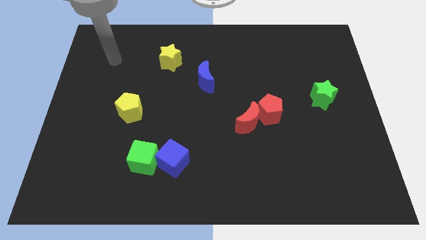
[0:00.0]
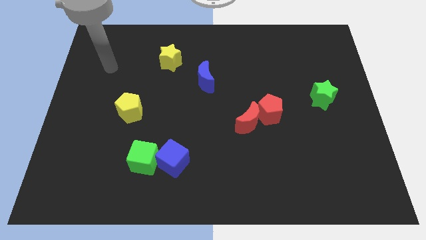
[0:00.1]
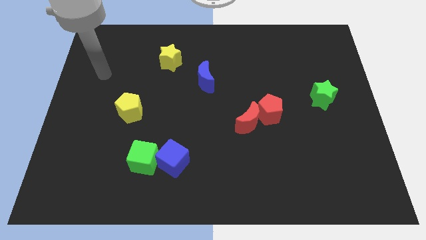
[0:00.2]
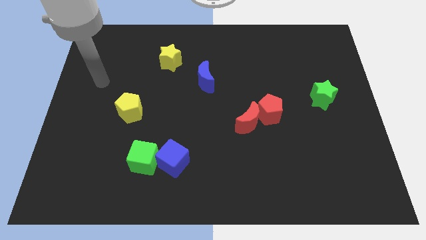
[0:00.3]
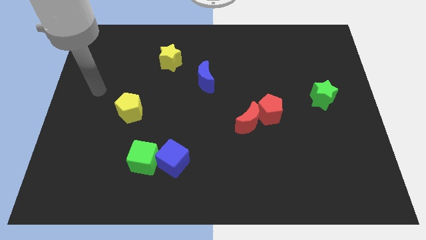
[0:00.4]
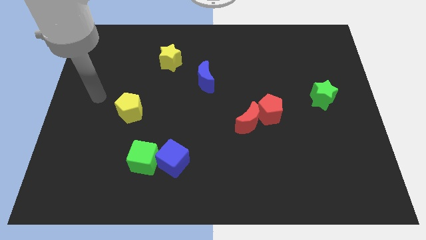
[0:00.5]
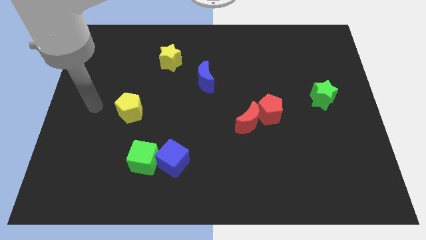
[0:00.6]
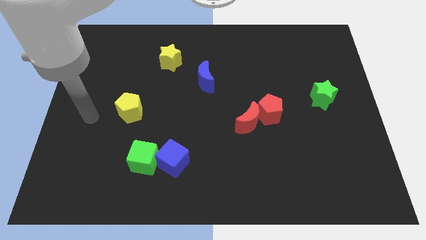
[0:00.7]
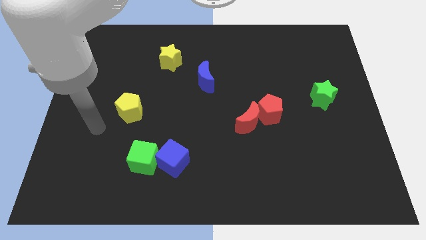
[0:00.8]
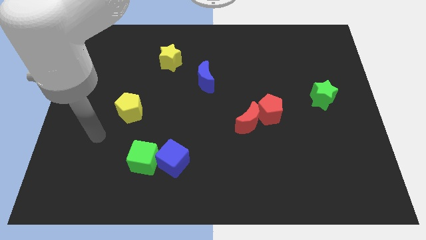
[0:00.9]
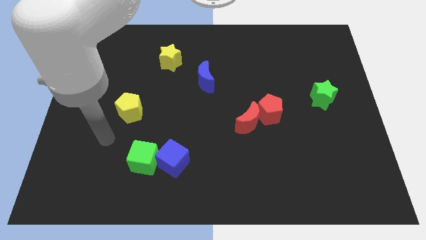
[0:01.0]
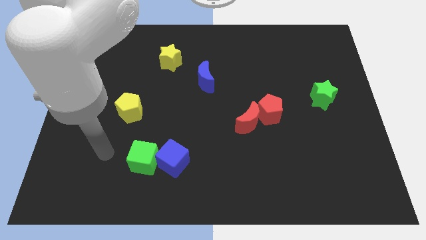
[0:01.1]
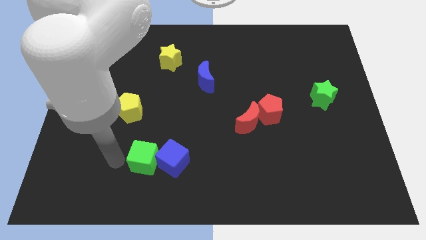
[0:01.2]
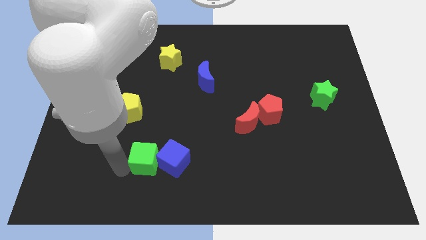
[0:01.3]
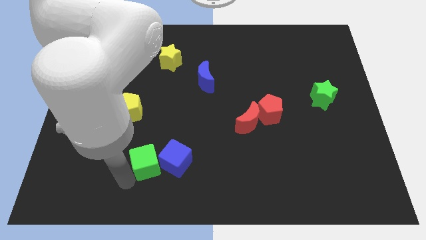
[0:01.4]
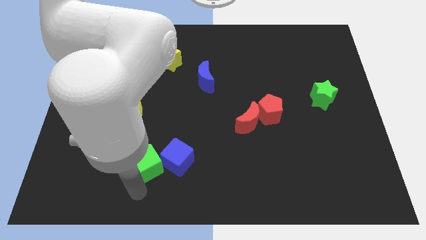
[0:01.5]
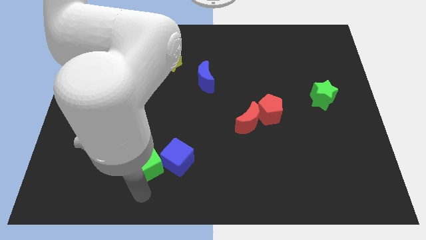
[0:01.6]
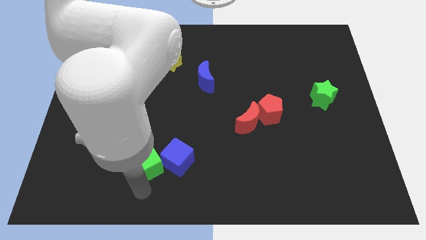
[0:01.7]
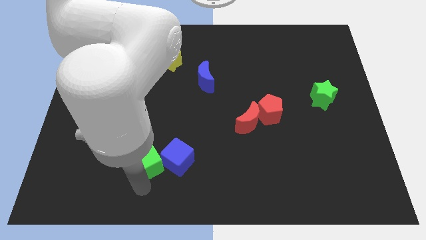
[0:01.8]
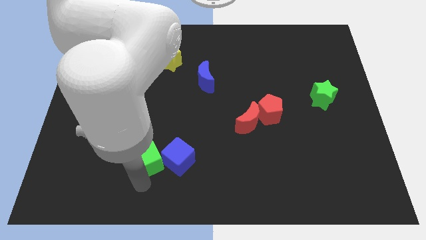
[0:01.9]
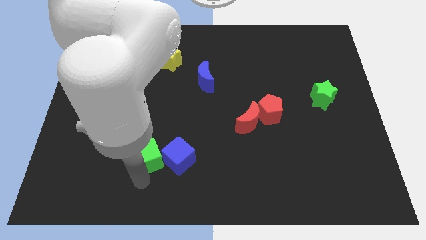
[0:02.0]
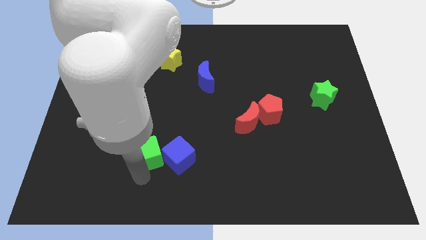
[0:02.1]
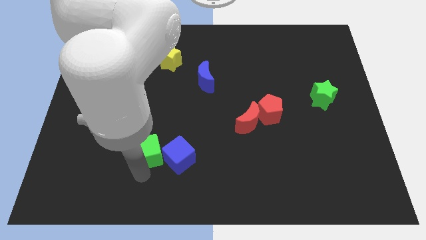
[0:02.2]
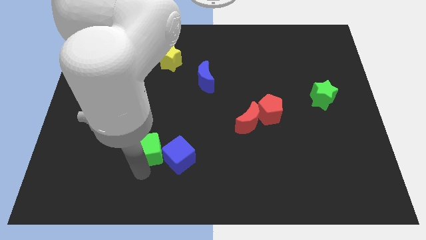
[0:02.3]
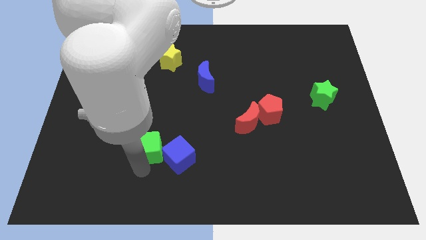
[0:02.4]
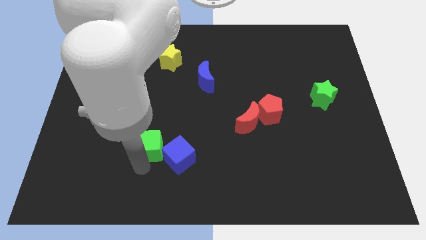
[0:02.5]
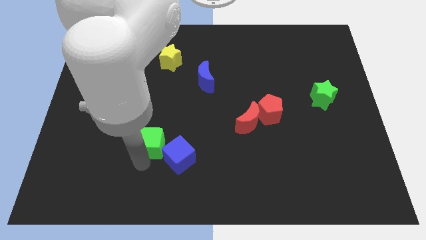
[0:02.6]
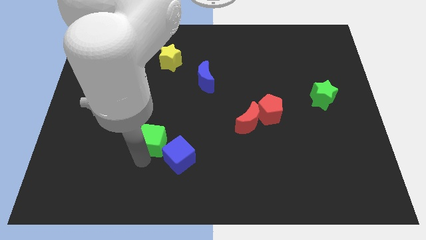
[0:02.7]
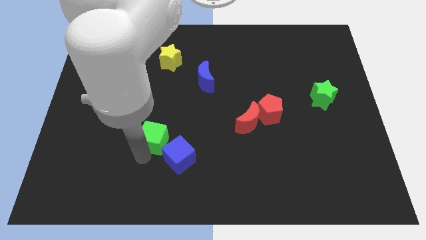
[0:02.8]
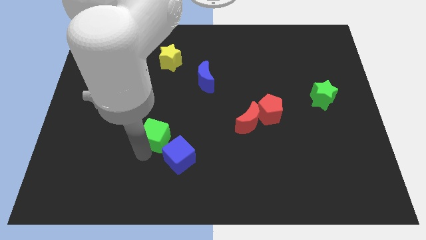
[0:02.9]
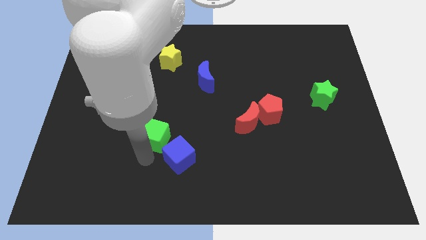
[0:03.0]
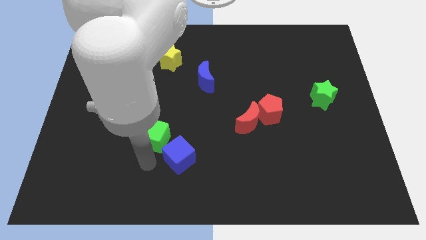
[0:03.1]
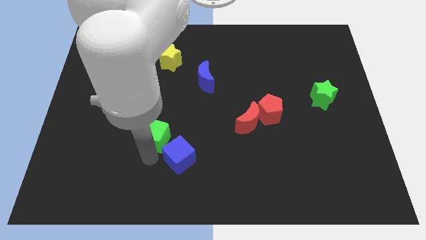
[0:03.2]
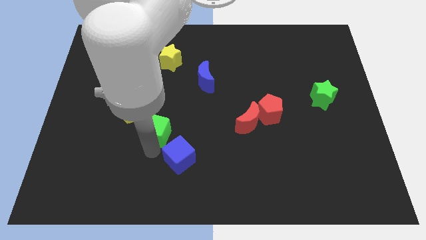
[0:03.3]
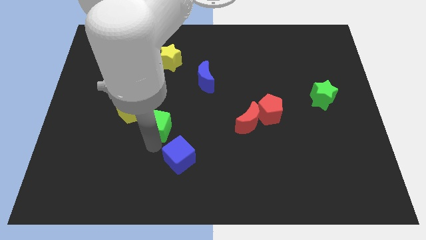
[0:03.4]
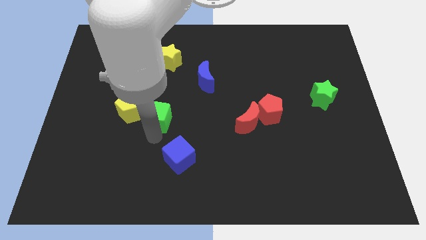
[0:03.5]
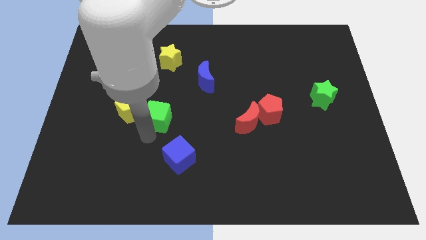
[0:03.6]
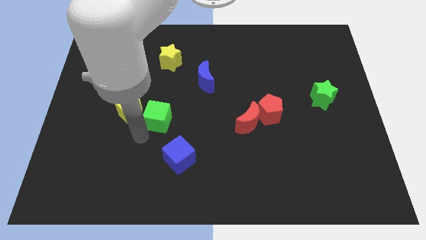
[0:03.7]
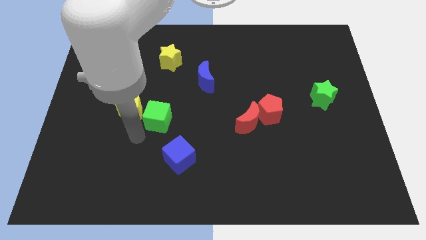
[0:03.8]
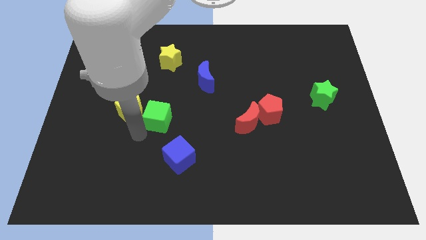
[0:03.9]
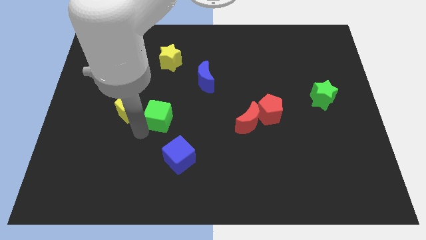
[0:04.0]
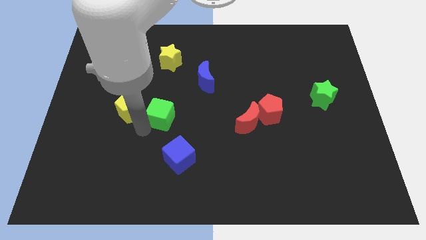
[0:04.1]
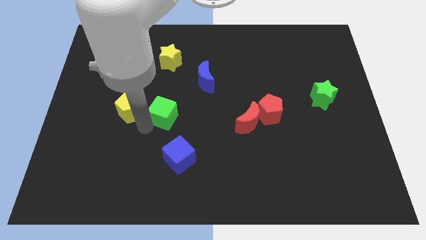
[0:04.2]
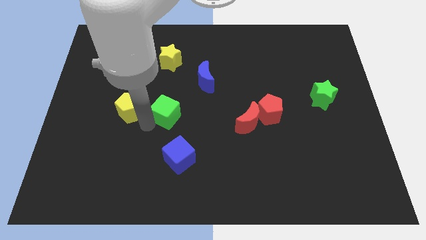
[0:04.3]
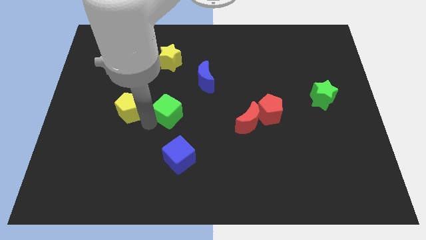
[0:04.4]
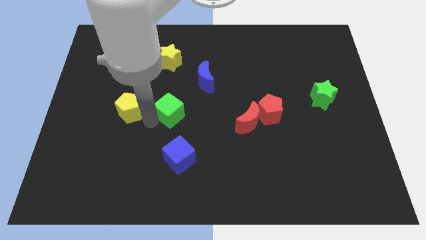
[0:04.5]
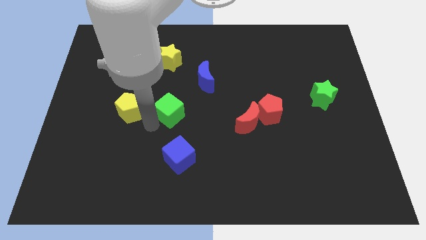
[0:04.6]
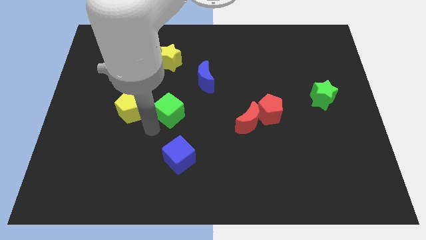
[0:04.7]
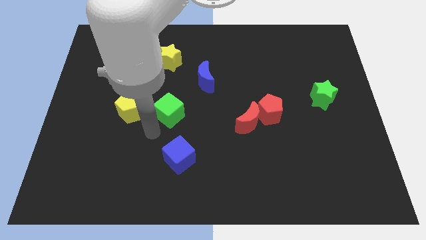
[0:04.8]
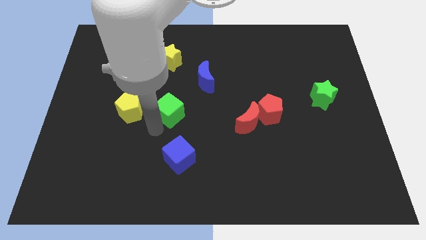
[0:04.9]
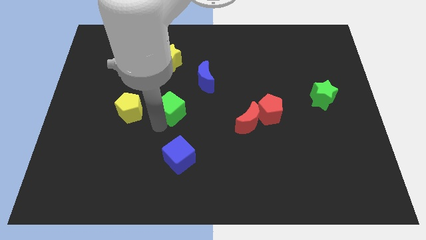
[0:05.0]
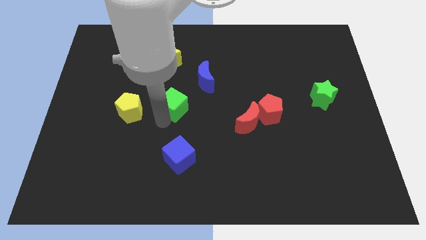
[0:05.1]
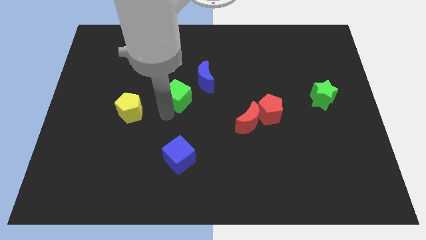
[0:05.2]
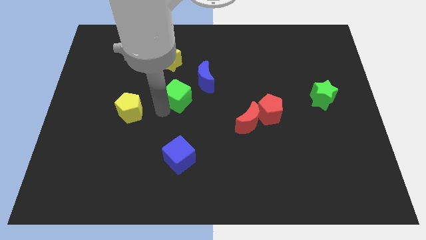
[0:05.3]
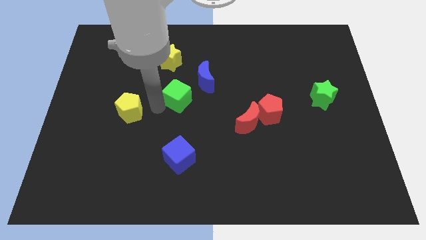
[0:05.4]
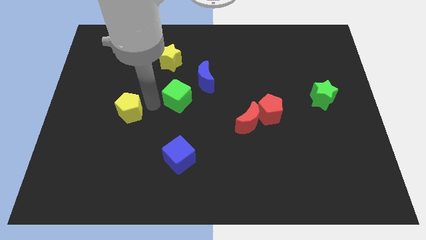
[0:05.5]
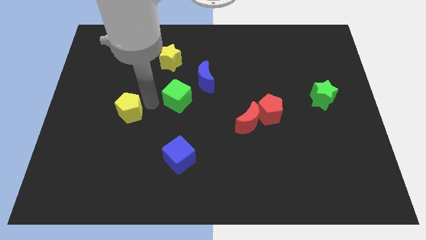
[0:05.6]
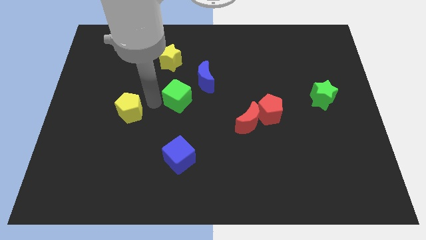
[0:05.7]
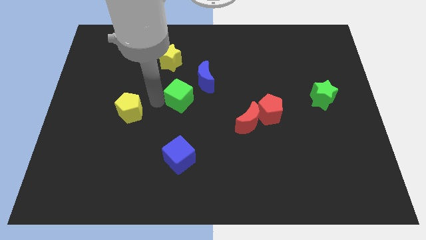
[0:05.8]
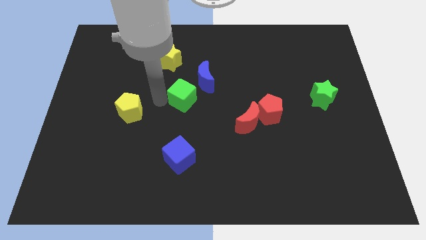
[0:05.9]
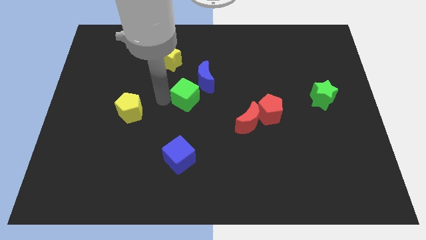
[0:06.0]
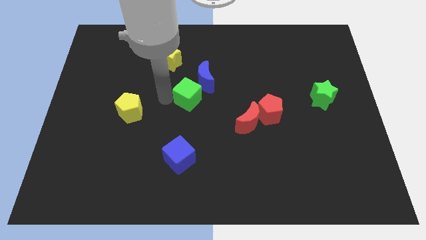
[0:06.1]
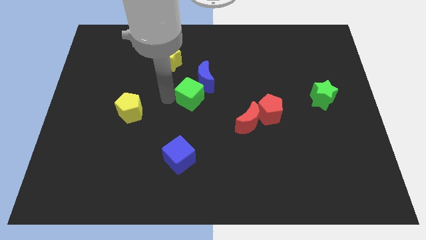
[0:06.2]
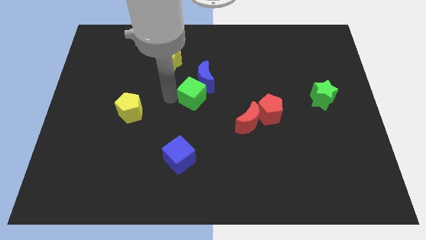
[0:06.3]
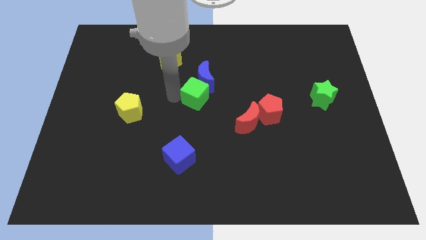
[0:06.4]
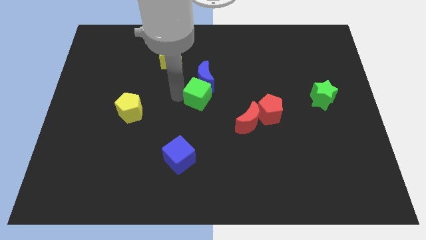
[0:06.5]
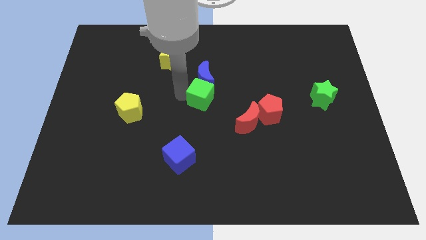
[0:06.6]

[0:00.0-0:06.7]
push the green cube diagonally upwards and to the right

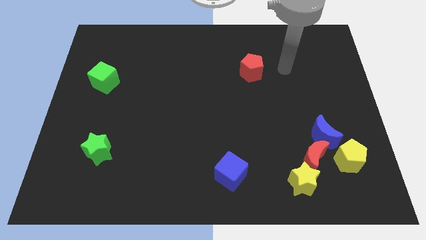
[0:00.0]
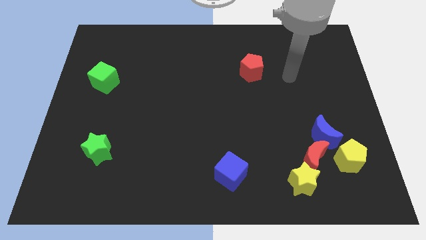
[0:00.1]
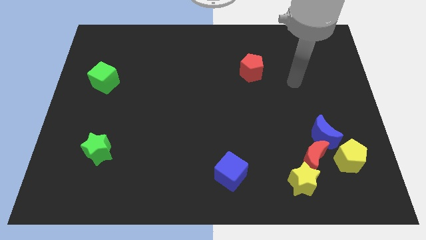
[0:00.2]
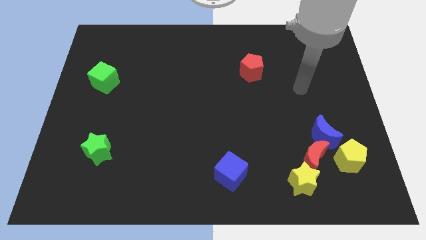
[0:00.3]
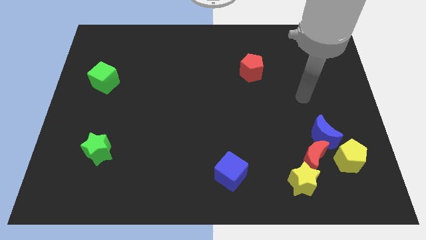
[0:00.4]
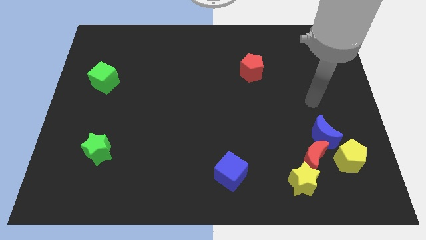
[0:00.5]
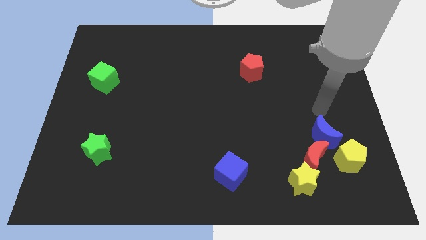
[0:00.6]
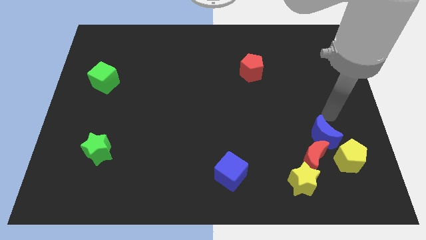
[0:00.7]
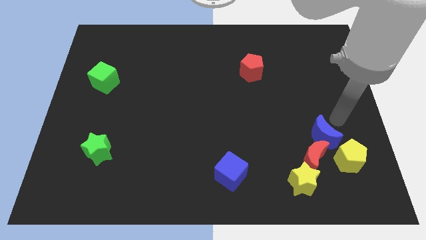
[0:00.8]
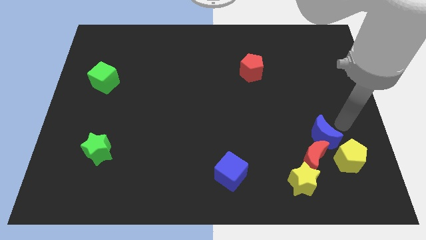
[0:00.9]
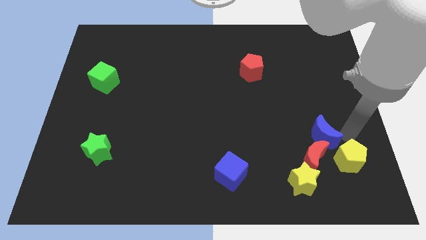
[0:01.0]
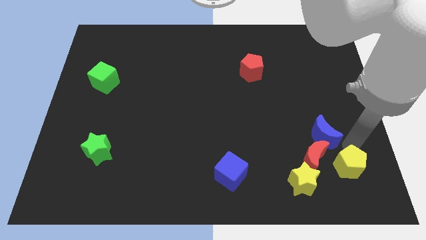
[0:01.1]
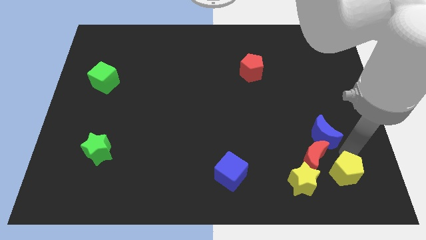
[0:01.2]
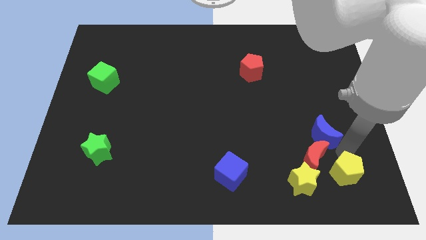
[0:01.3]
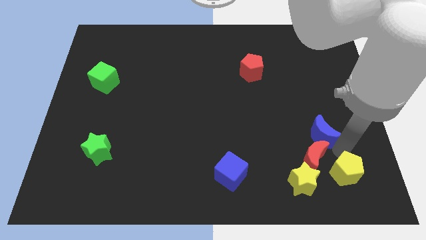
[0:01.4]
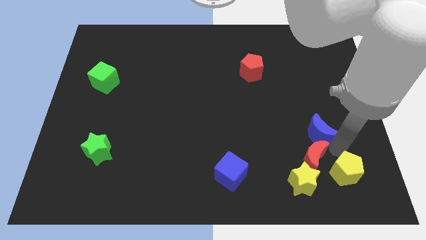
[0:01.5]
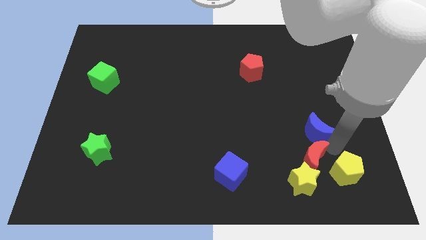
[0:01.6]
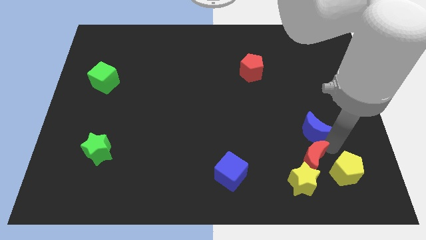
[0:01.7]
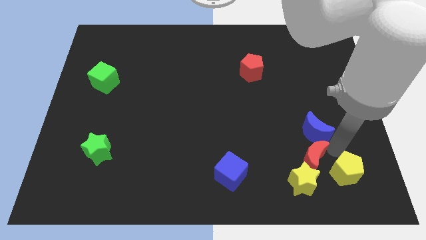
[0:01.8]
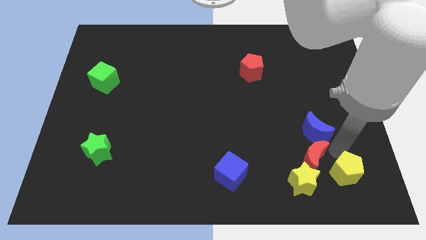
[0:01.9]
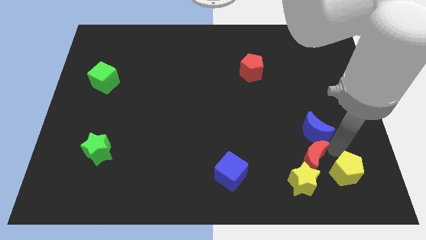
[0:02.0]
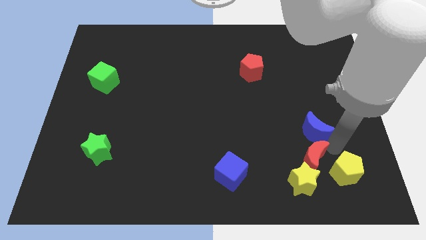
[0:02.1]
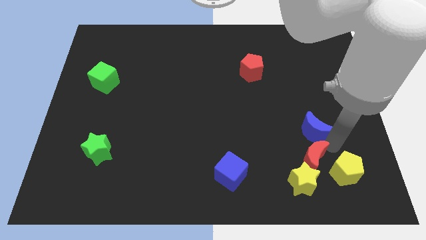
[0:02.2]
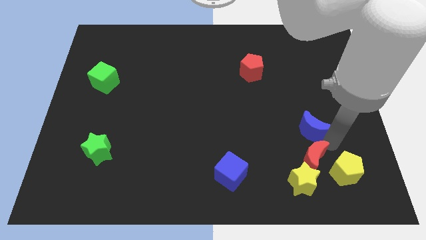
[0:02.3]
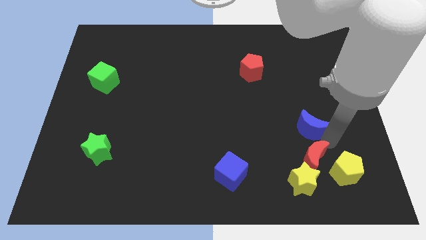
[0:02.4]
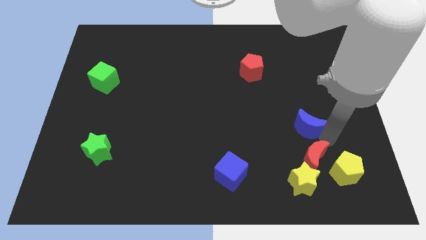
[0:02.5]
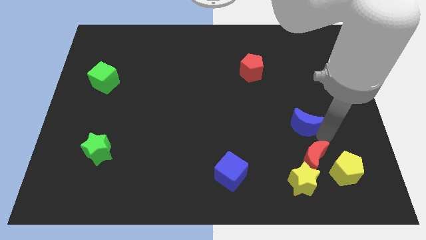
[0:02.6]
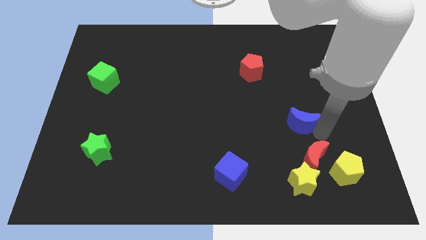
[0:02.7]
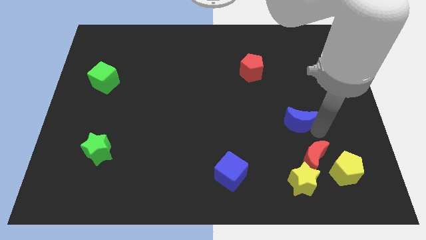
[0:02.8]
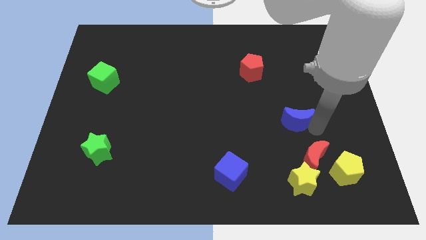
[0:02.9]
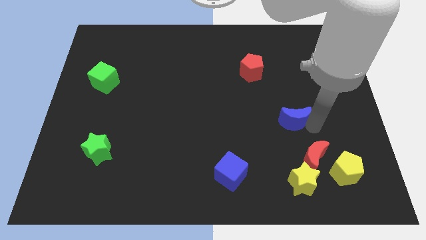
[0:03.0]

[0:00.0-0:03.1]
push the blue moon a little upwards and to the left
